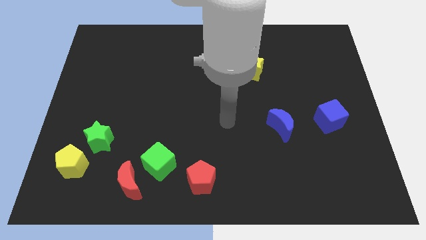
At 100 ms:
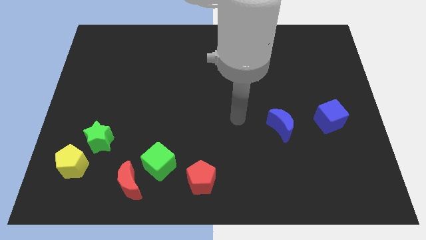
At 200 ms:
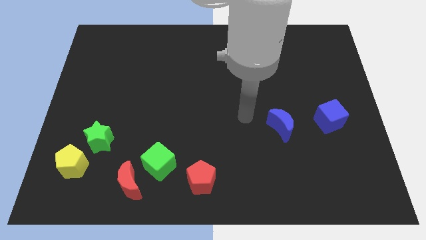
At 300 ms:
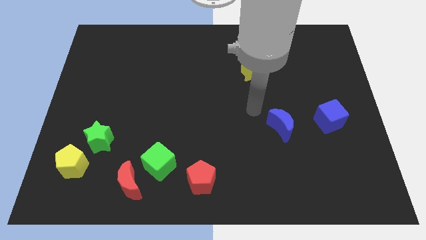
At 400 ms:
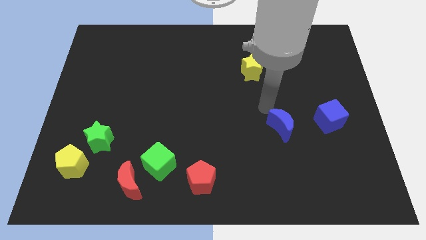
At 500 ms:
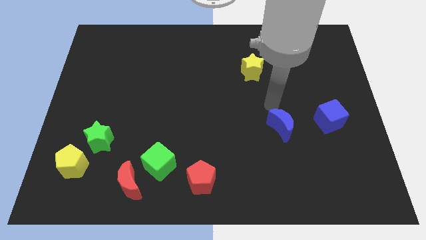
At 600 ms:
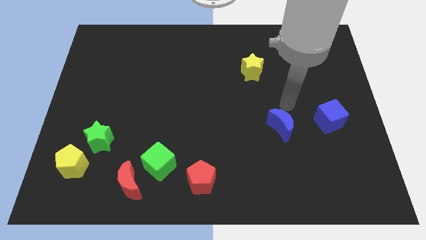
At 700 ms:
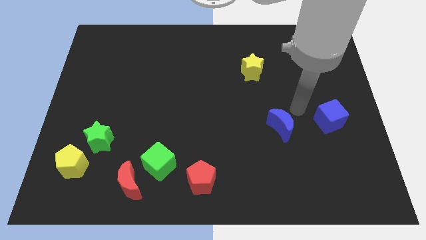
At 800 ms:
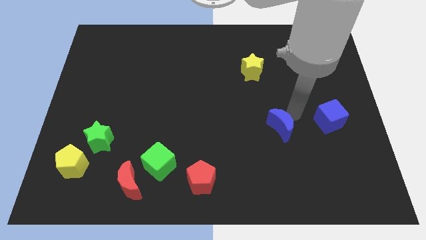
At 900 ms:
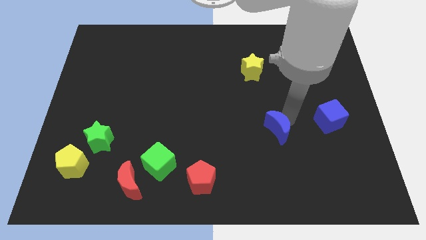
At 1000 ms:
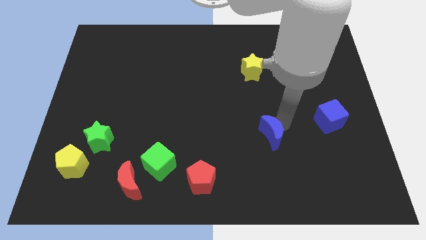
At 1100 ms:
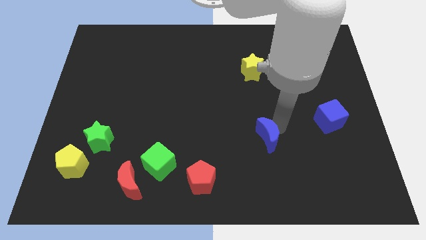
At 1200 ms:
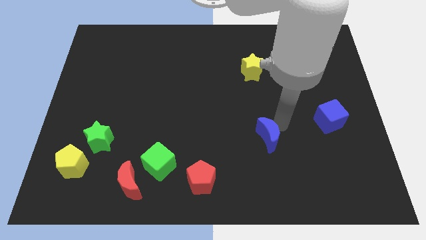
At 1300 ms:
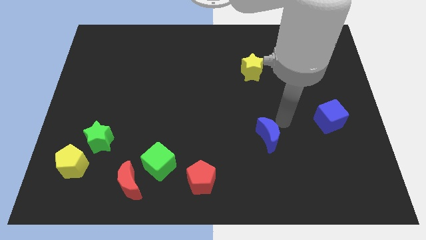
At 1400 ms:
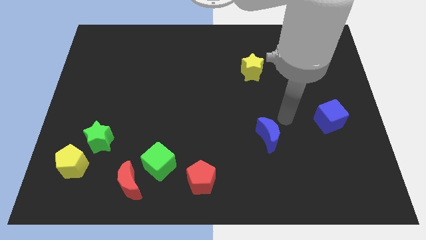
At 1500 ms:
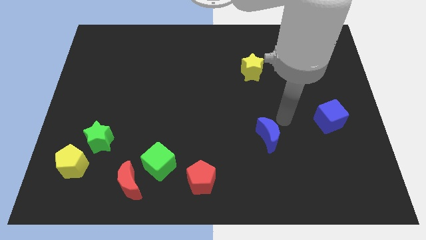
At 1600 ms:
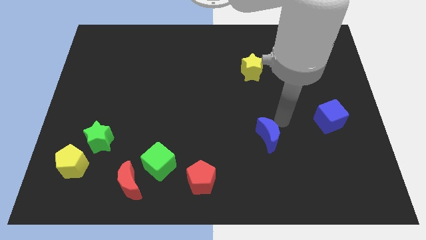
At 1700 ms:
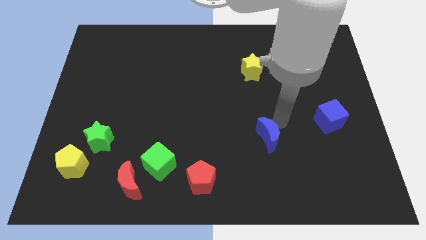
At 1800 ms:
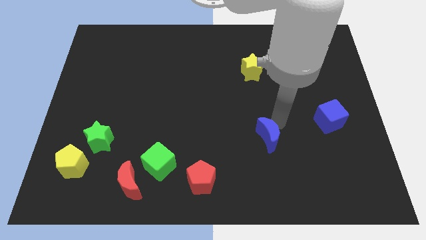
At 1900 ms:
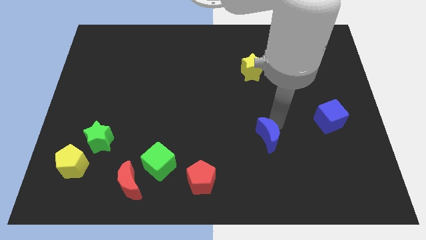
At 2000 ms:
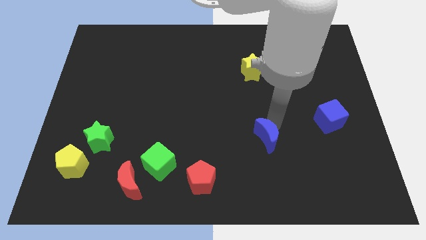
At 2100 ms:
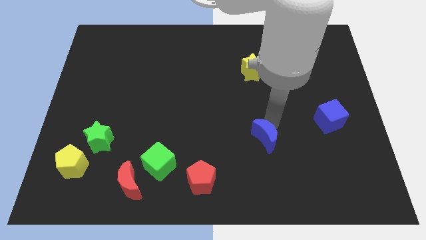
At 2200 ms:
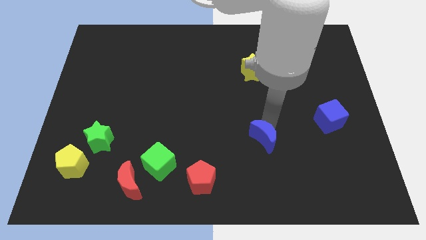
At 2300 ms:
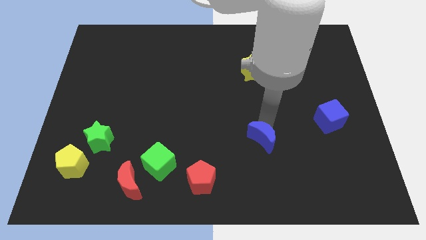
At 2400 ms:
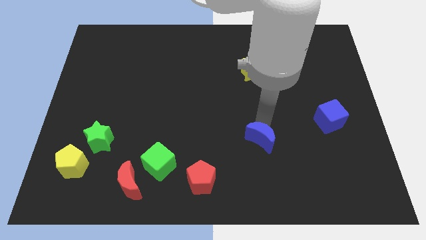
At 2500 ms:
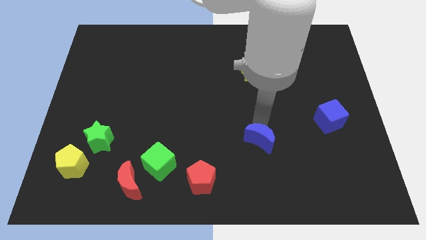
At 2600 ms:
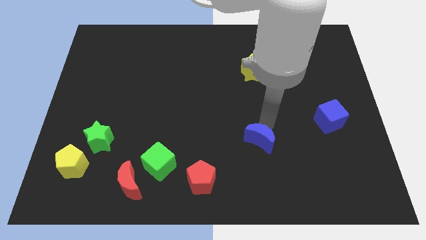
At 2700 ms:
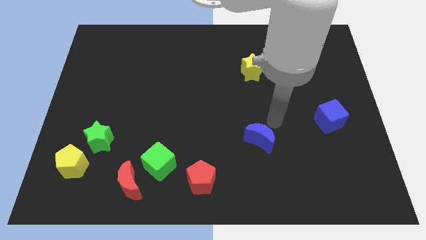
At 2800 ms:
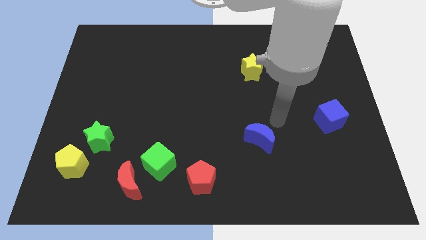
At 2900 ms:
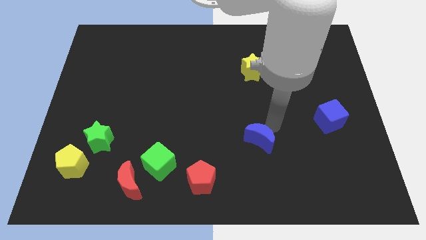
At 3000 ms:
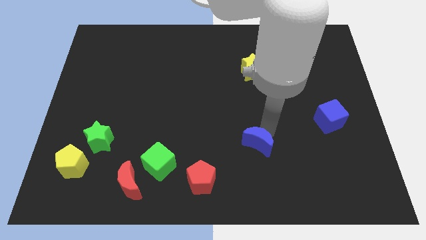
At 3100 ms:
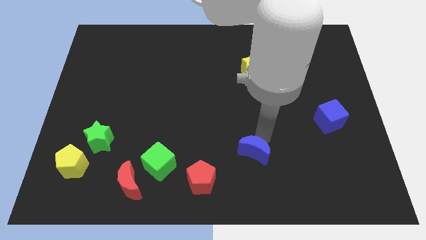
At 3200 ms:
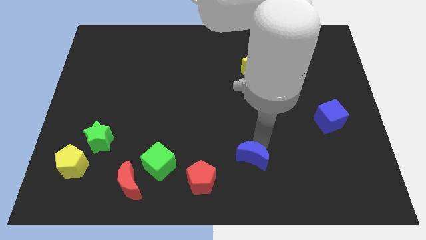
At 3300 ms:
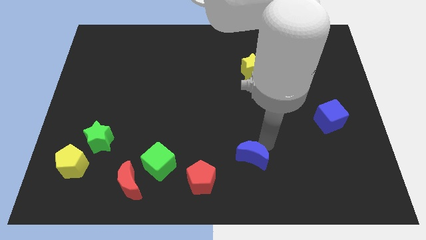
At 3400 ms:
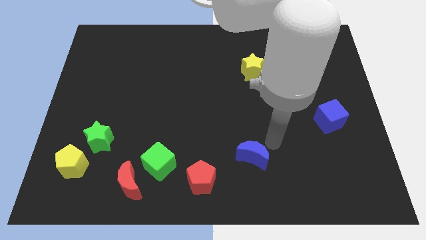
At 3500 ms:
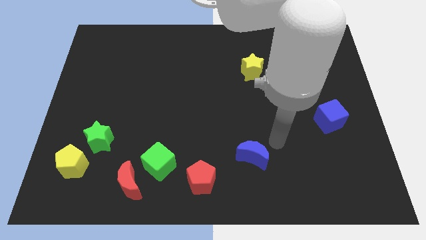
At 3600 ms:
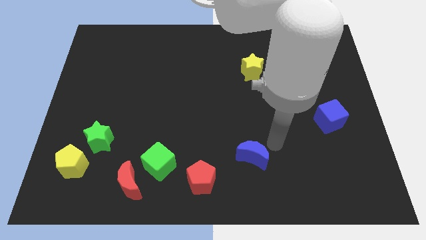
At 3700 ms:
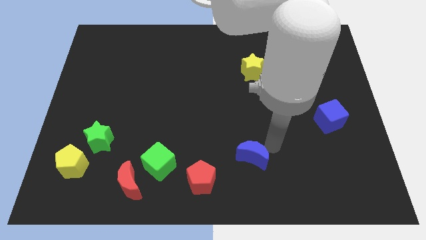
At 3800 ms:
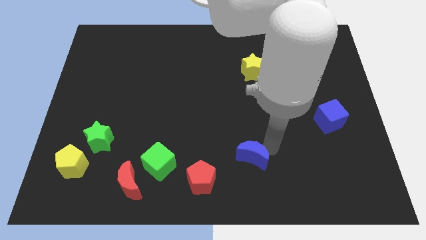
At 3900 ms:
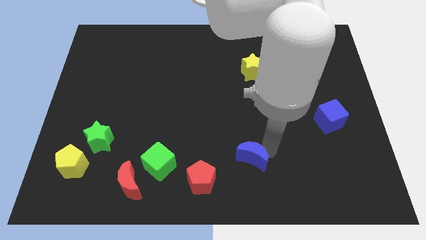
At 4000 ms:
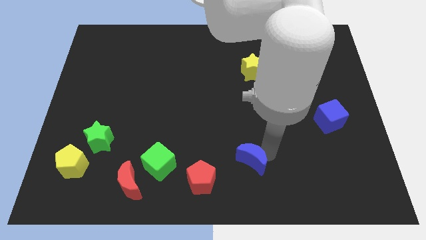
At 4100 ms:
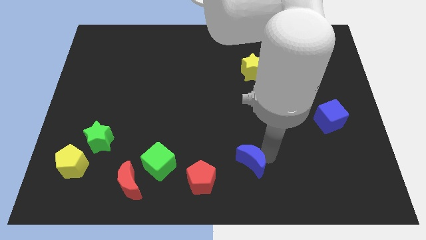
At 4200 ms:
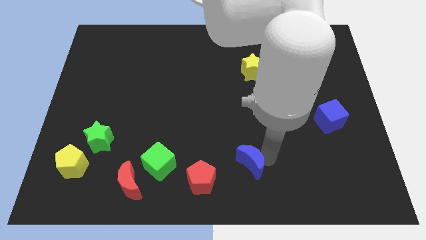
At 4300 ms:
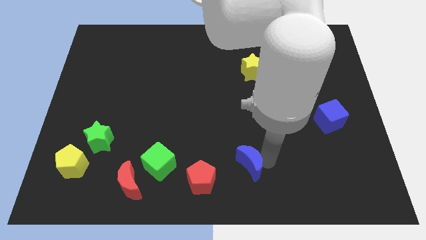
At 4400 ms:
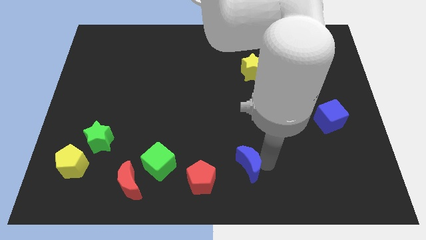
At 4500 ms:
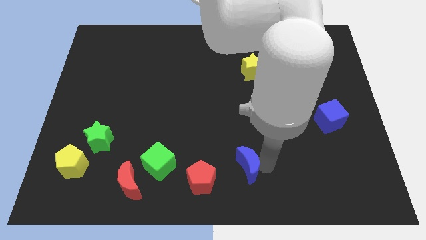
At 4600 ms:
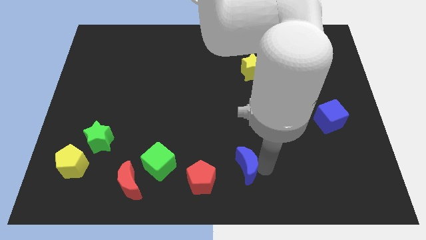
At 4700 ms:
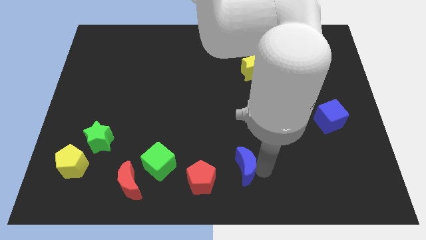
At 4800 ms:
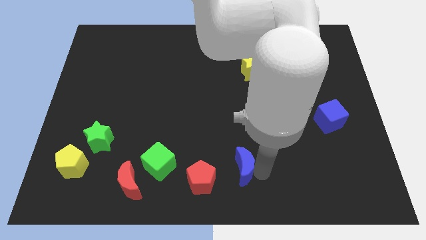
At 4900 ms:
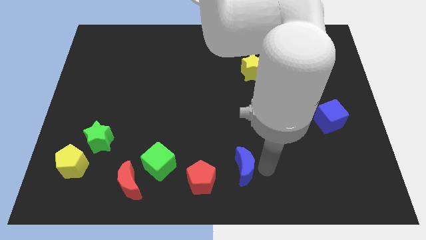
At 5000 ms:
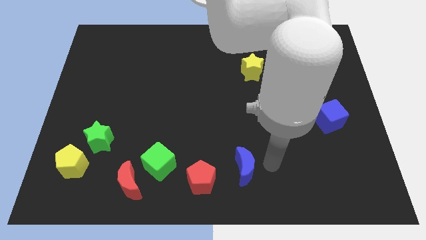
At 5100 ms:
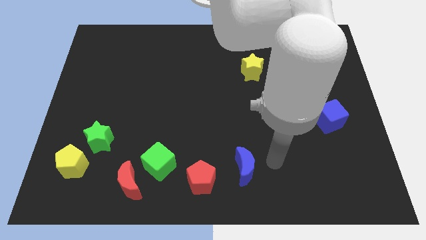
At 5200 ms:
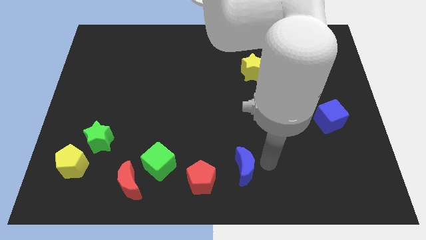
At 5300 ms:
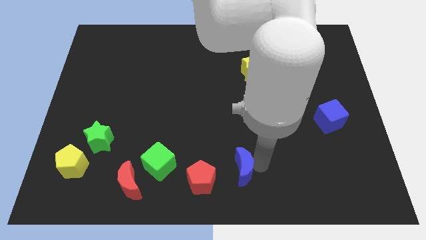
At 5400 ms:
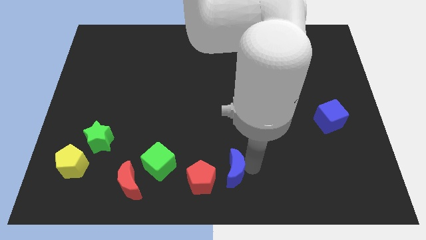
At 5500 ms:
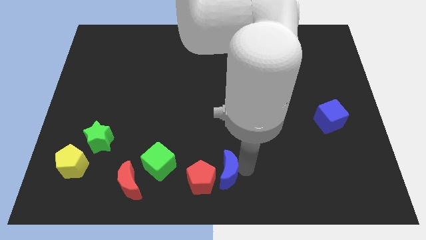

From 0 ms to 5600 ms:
move the blue moon towards the red pentagon

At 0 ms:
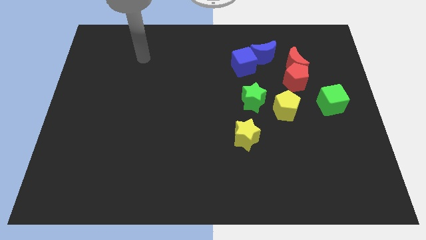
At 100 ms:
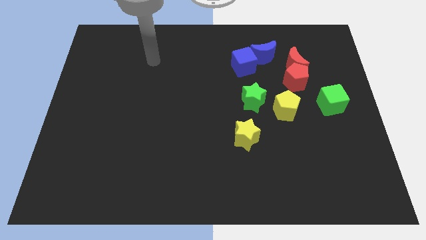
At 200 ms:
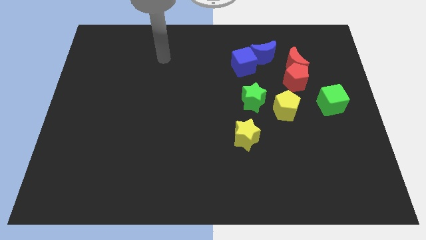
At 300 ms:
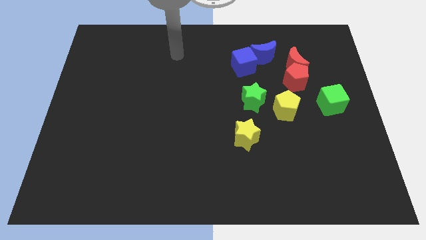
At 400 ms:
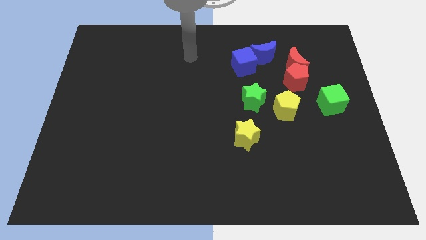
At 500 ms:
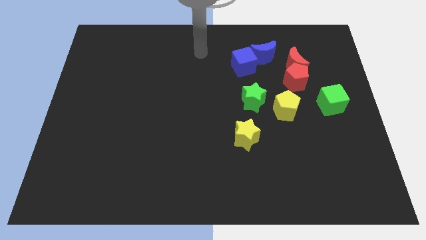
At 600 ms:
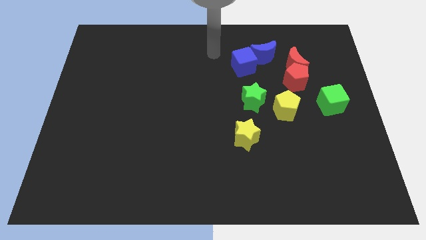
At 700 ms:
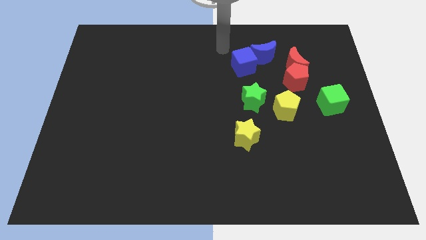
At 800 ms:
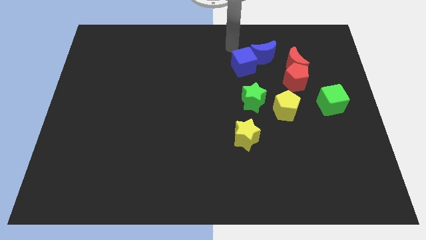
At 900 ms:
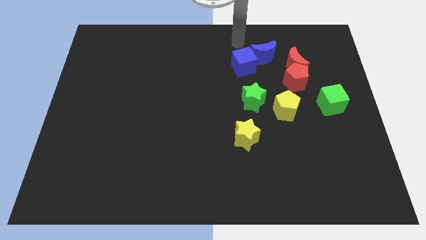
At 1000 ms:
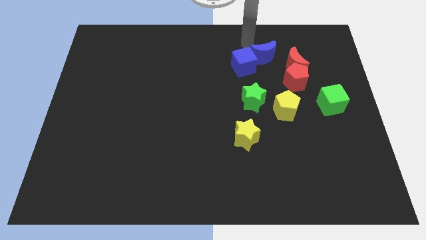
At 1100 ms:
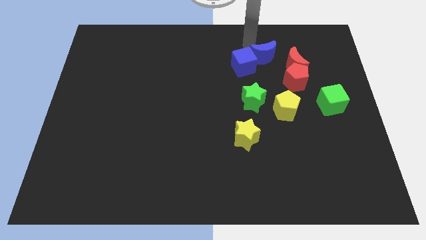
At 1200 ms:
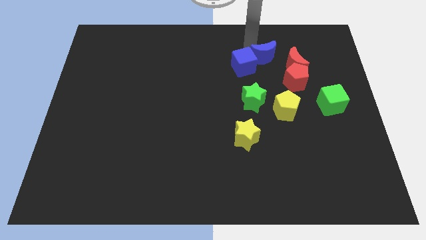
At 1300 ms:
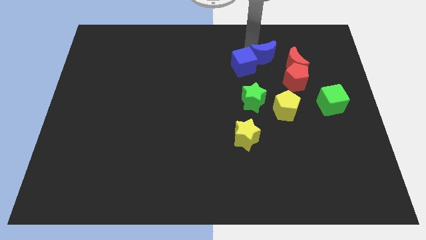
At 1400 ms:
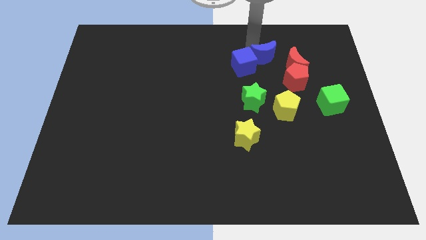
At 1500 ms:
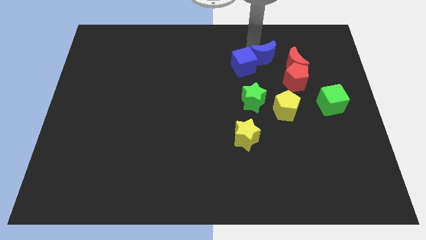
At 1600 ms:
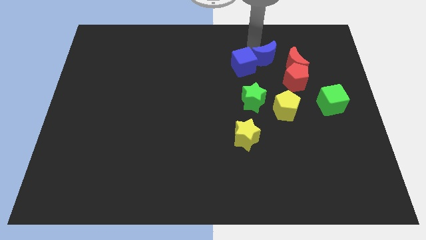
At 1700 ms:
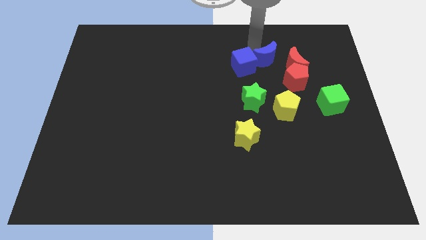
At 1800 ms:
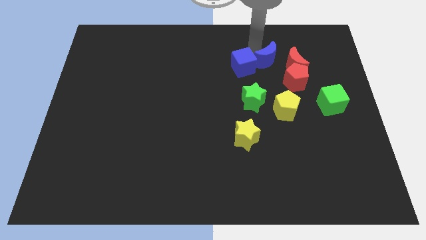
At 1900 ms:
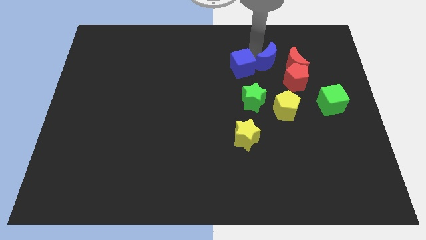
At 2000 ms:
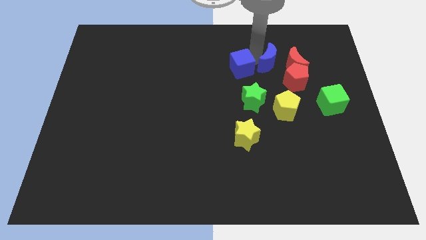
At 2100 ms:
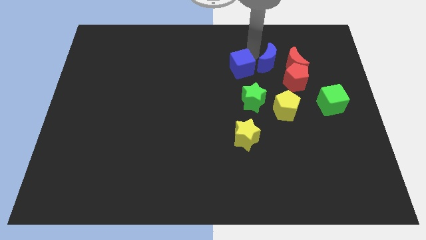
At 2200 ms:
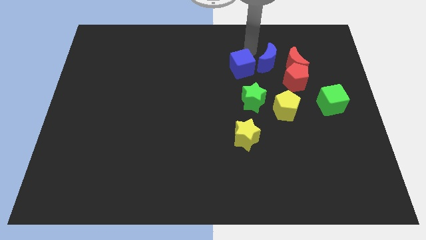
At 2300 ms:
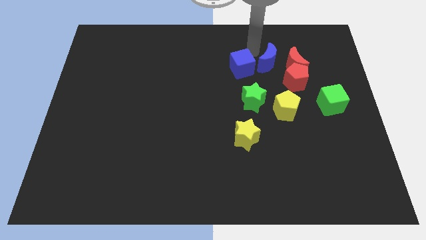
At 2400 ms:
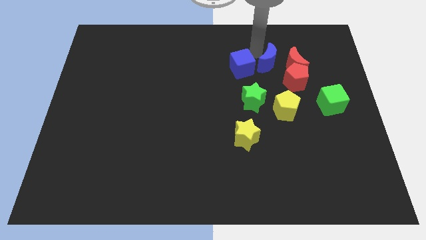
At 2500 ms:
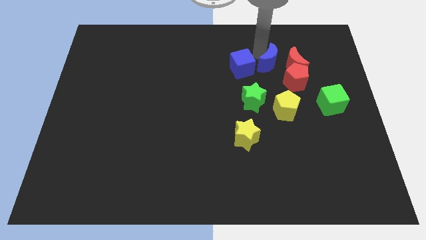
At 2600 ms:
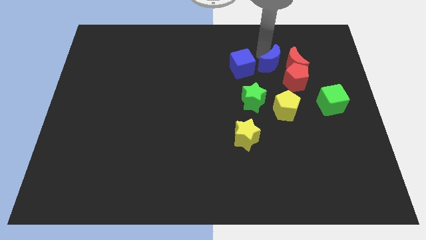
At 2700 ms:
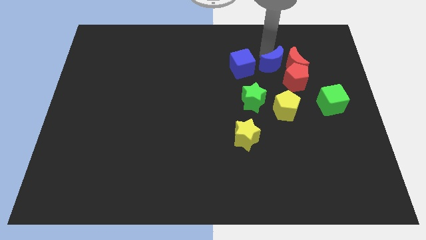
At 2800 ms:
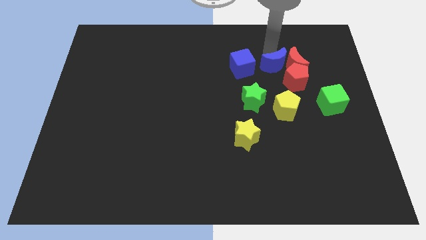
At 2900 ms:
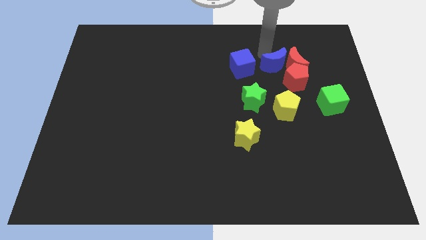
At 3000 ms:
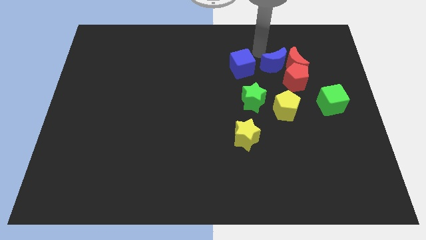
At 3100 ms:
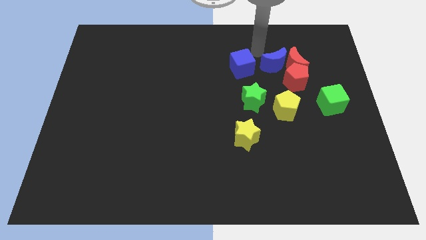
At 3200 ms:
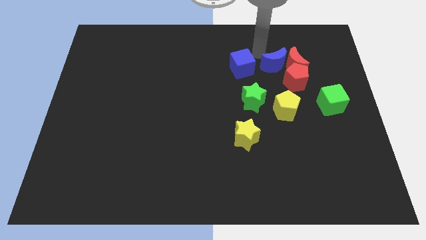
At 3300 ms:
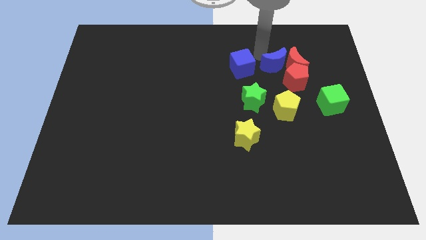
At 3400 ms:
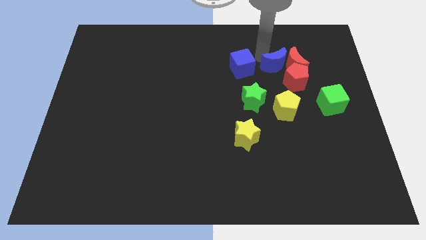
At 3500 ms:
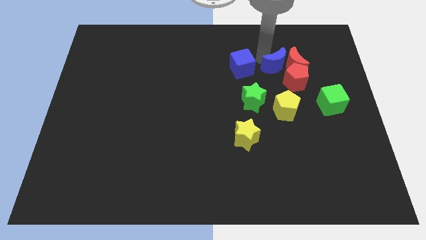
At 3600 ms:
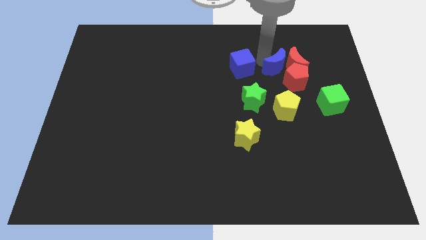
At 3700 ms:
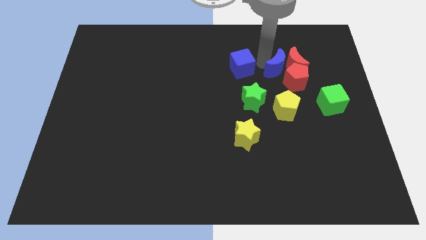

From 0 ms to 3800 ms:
push the blue moon close to the red pentagon
